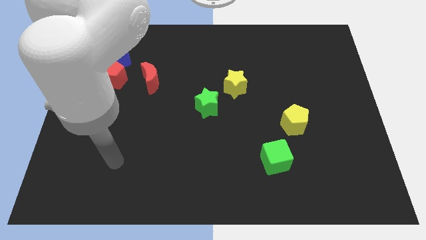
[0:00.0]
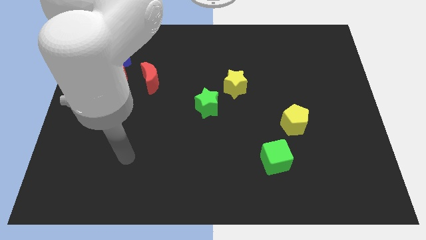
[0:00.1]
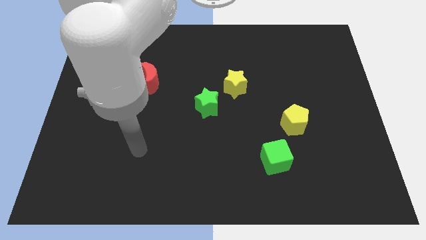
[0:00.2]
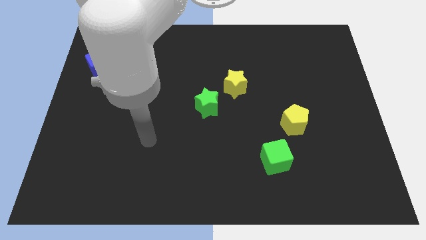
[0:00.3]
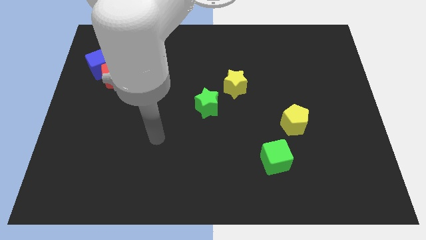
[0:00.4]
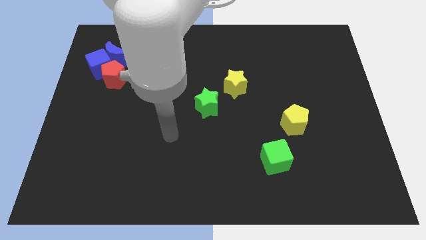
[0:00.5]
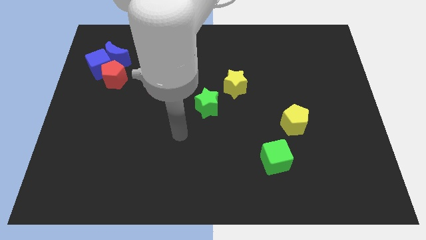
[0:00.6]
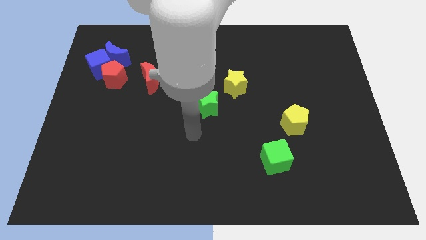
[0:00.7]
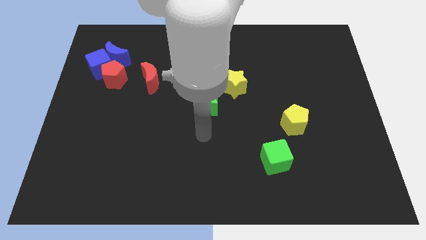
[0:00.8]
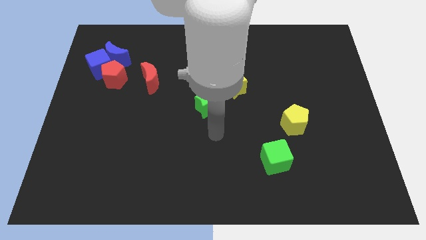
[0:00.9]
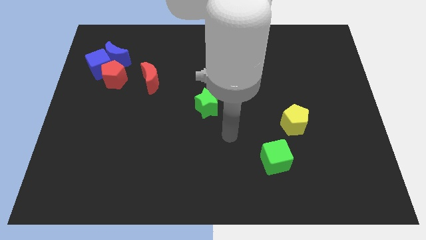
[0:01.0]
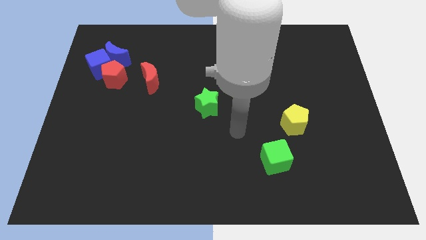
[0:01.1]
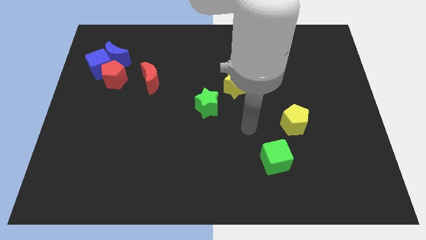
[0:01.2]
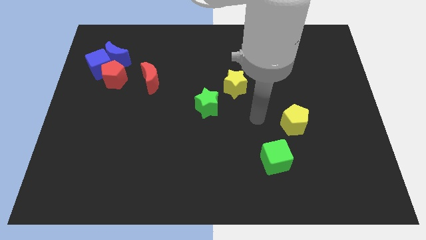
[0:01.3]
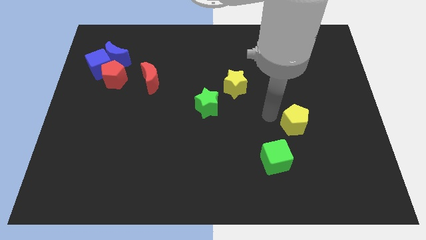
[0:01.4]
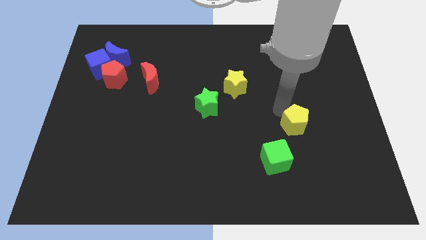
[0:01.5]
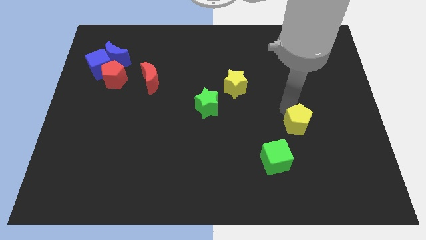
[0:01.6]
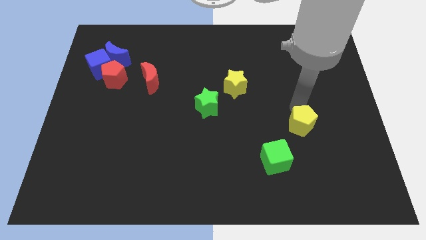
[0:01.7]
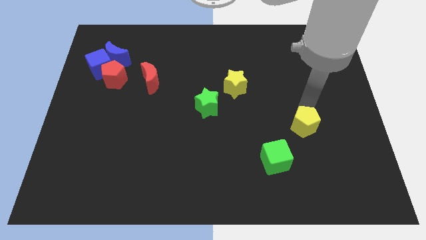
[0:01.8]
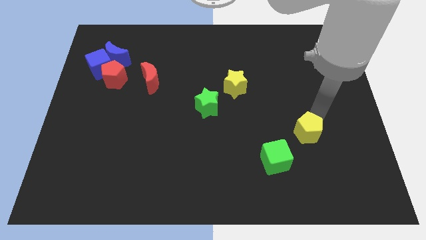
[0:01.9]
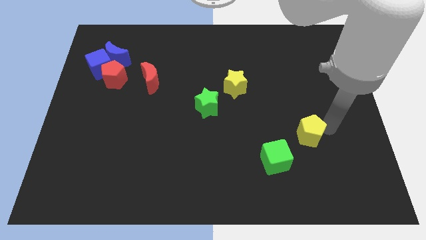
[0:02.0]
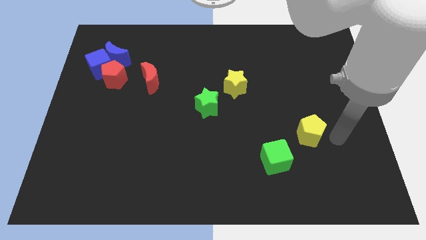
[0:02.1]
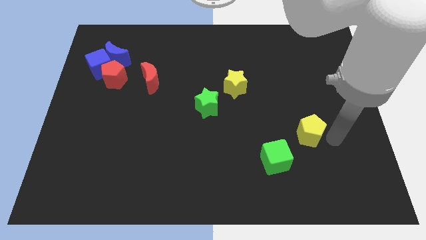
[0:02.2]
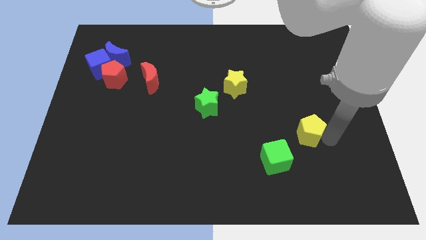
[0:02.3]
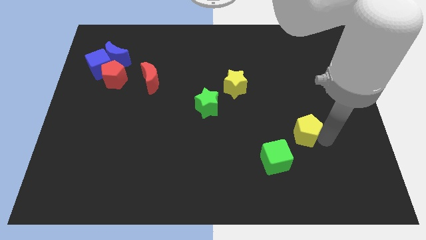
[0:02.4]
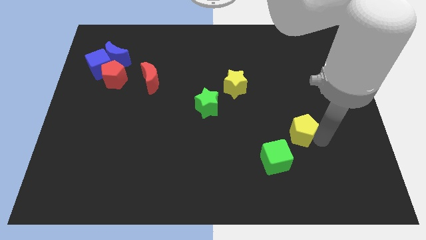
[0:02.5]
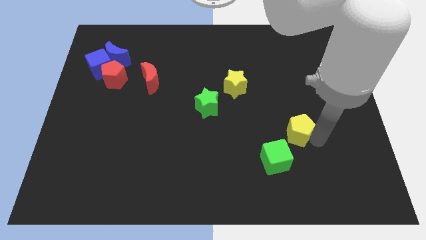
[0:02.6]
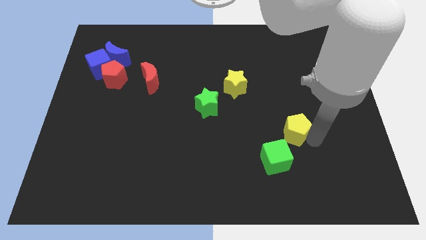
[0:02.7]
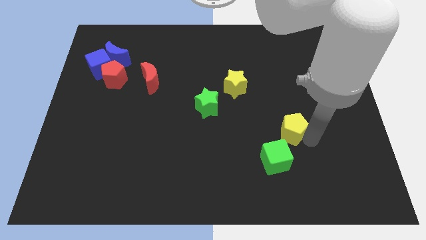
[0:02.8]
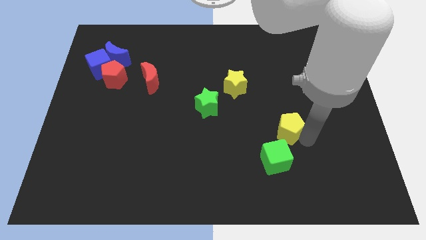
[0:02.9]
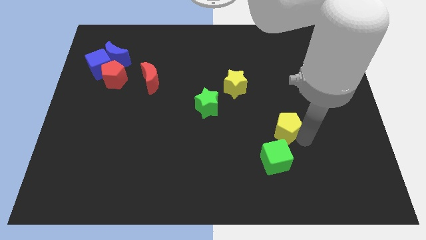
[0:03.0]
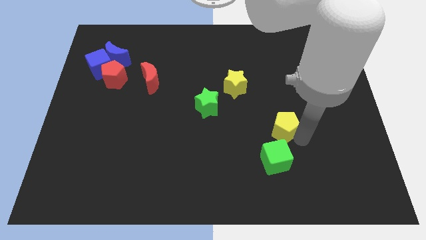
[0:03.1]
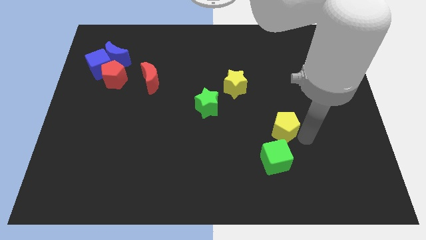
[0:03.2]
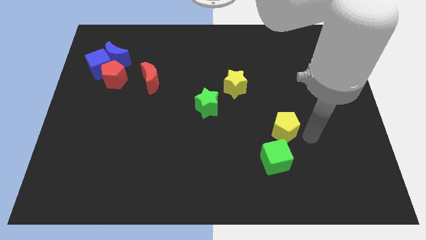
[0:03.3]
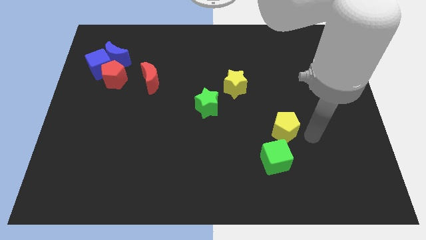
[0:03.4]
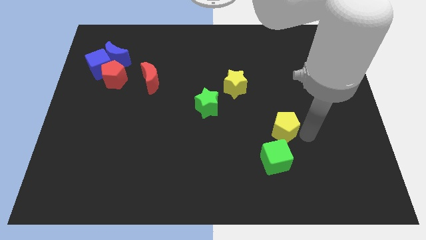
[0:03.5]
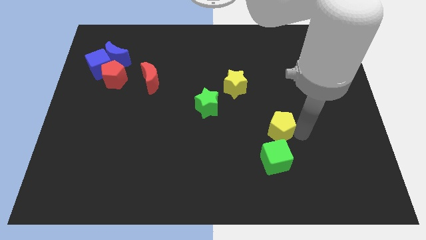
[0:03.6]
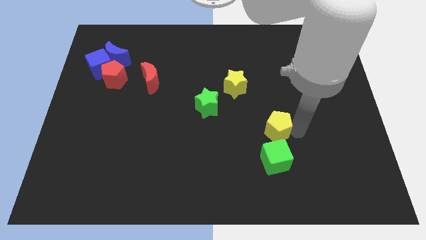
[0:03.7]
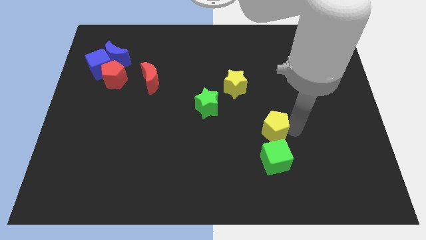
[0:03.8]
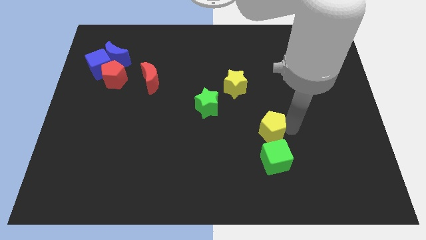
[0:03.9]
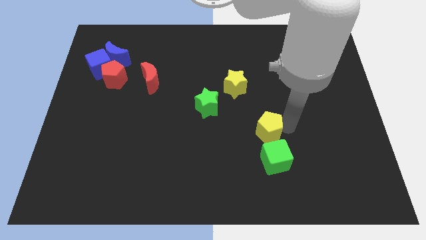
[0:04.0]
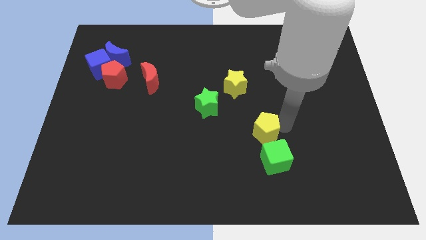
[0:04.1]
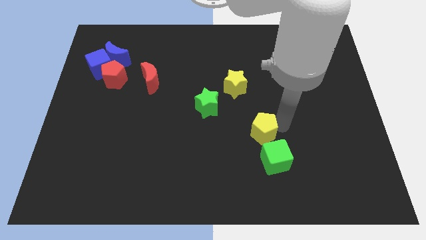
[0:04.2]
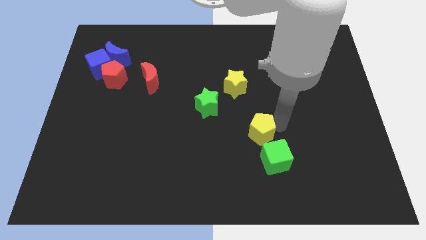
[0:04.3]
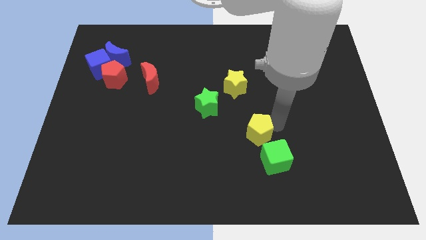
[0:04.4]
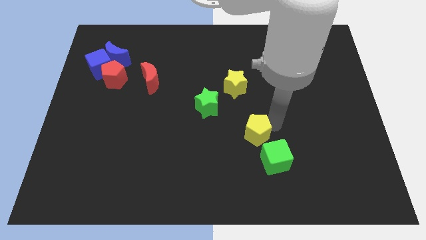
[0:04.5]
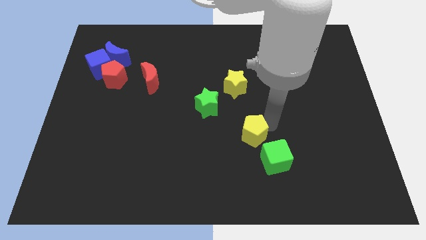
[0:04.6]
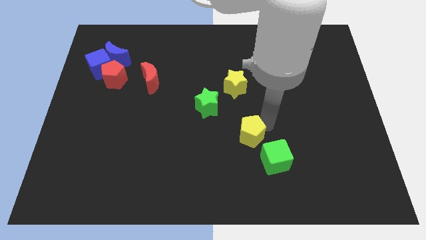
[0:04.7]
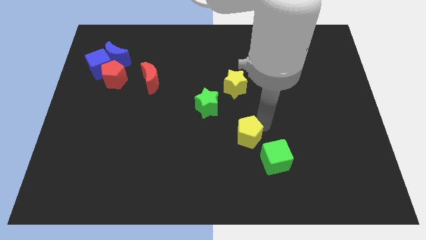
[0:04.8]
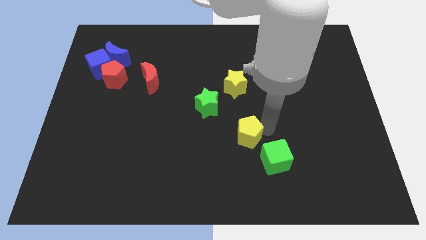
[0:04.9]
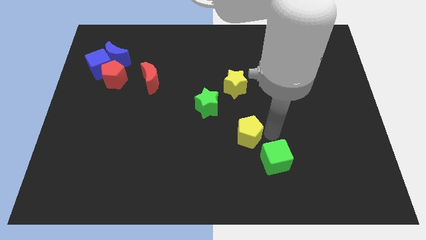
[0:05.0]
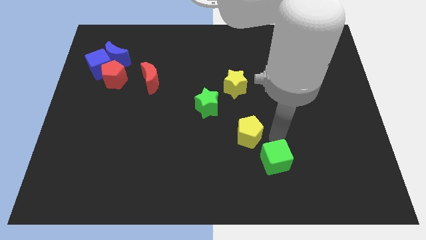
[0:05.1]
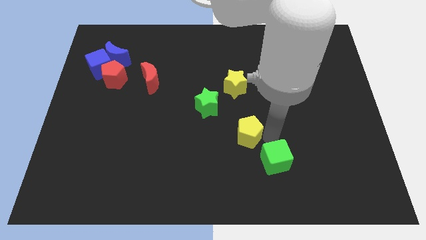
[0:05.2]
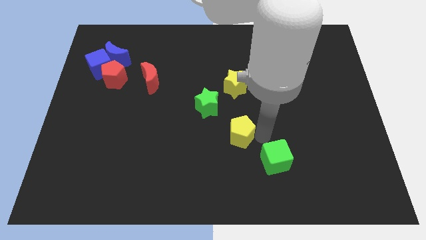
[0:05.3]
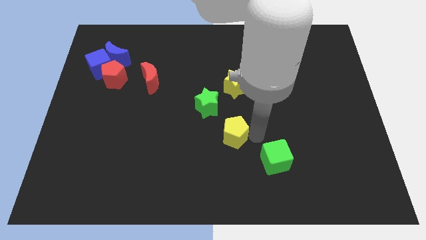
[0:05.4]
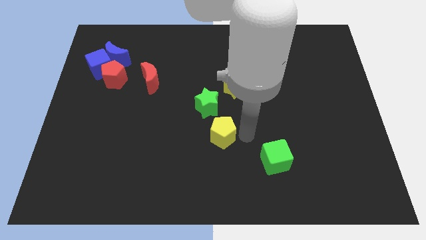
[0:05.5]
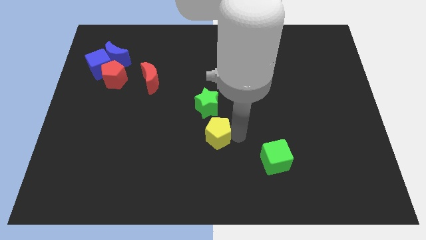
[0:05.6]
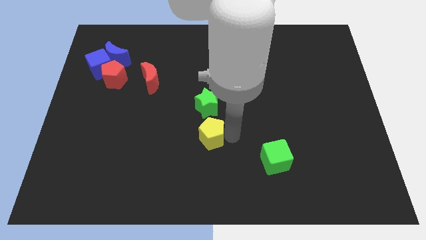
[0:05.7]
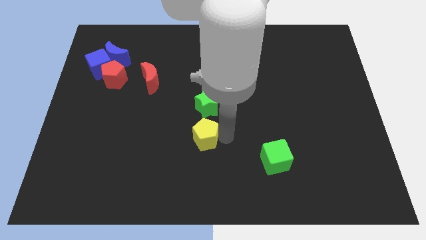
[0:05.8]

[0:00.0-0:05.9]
slide the yellow pentagon to the left

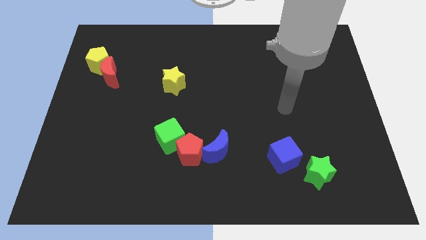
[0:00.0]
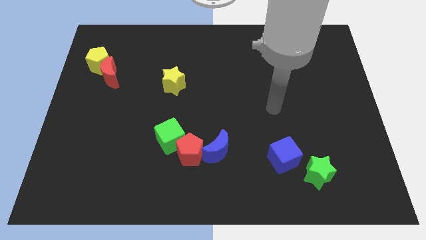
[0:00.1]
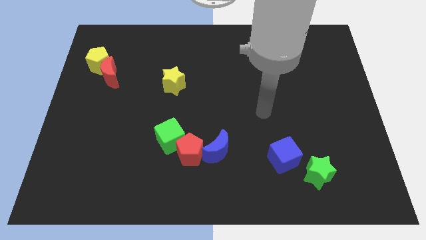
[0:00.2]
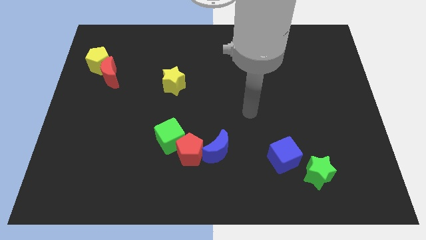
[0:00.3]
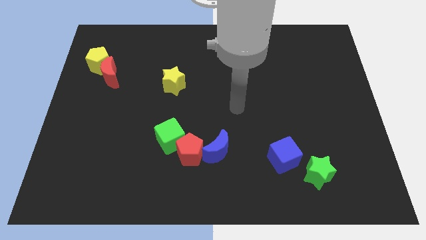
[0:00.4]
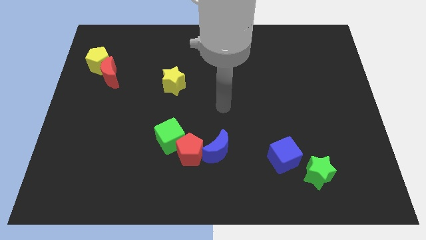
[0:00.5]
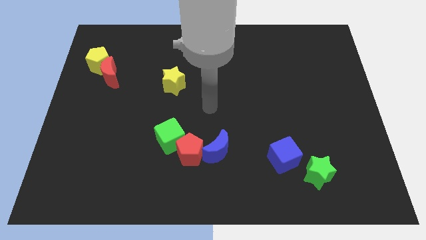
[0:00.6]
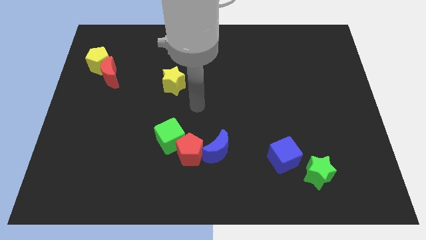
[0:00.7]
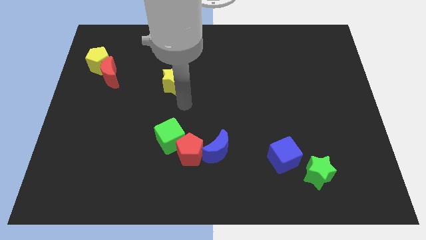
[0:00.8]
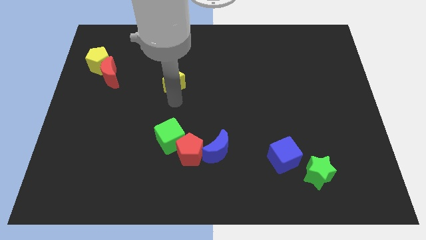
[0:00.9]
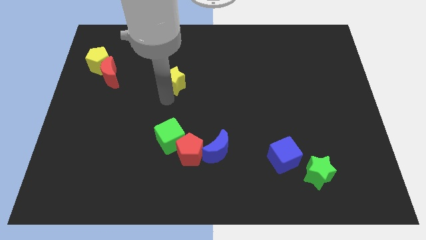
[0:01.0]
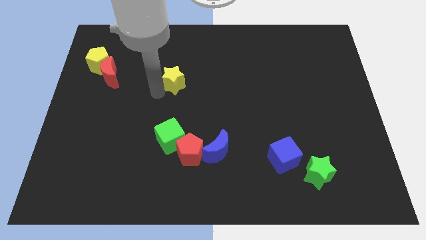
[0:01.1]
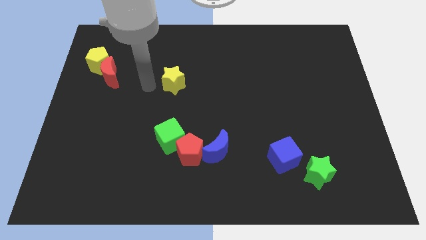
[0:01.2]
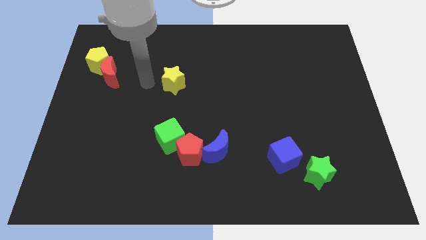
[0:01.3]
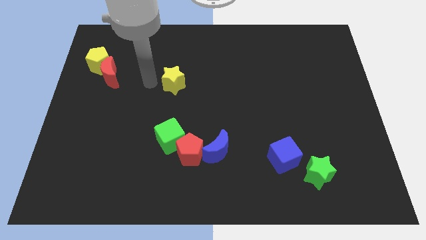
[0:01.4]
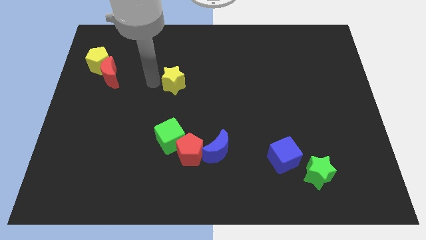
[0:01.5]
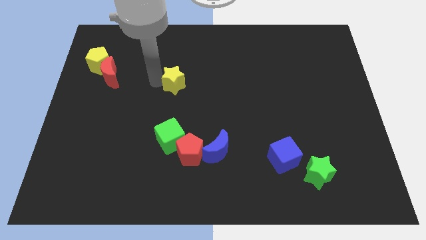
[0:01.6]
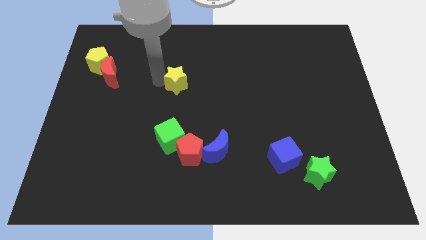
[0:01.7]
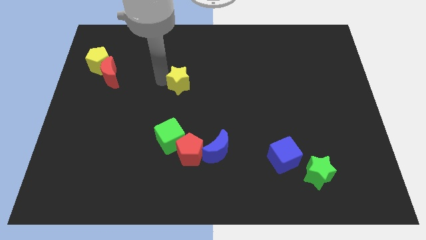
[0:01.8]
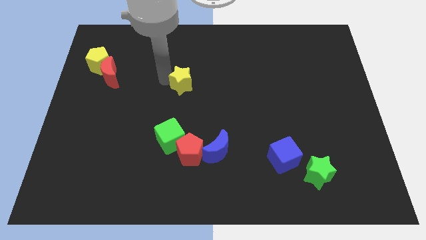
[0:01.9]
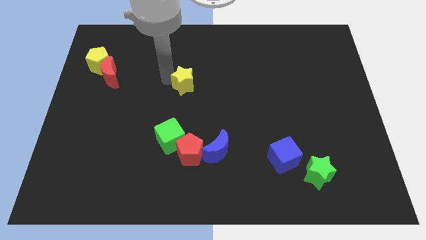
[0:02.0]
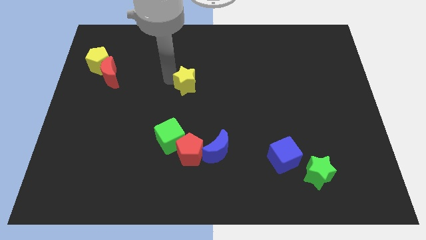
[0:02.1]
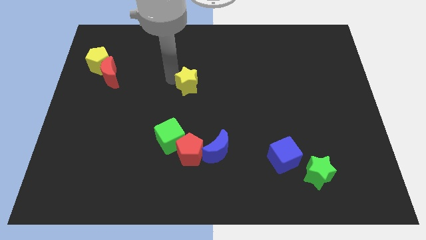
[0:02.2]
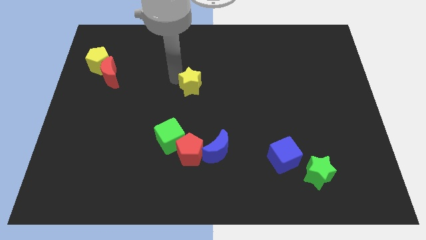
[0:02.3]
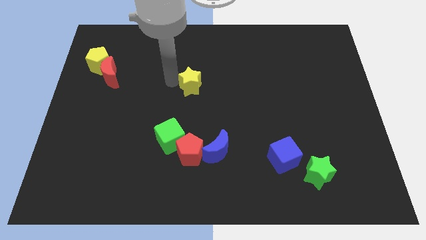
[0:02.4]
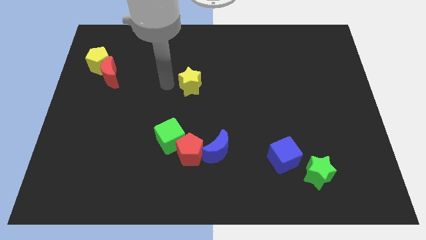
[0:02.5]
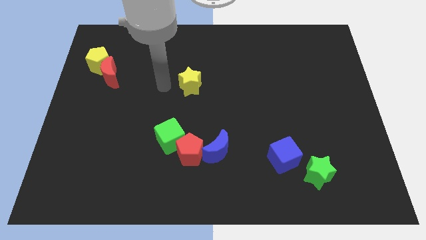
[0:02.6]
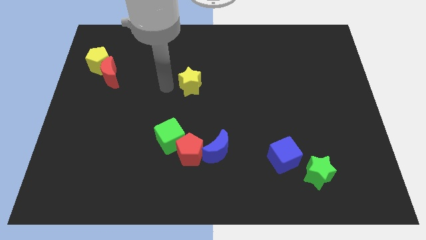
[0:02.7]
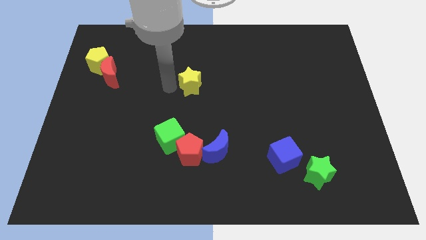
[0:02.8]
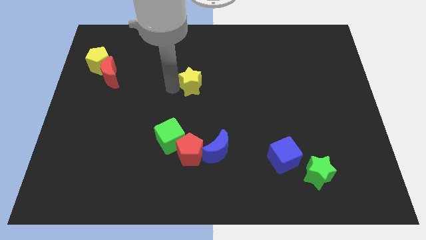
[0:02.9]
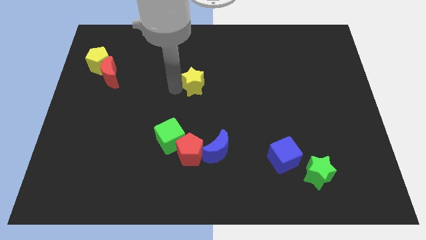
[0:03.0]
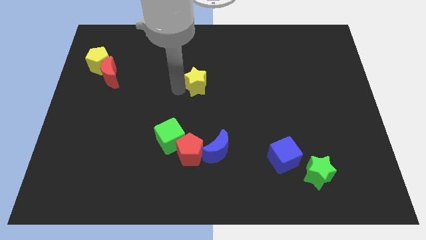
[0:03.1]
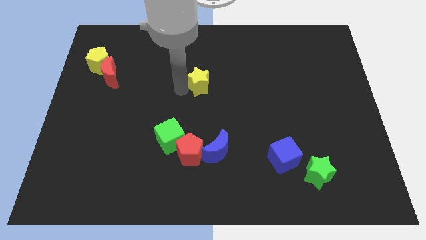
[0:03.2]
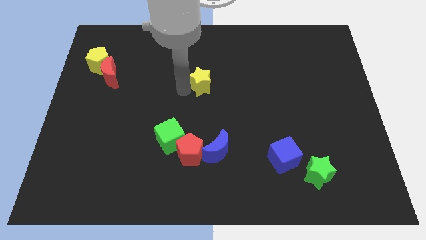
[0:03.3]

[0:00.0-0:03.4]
slightly push the yellow star right
